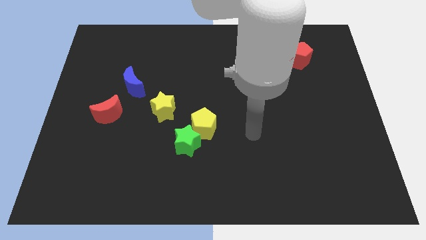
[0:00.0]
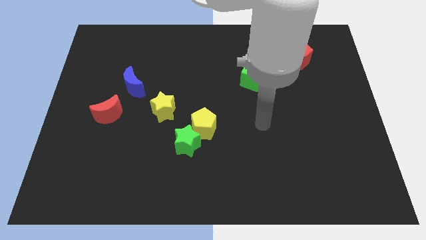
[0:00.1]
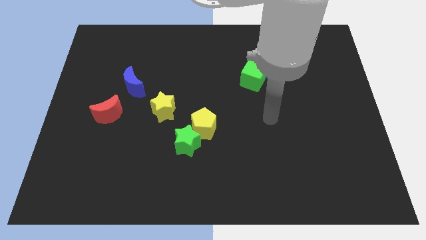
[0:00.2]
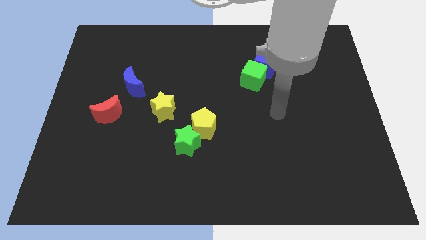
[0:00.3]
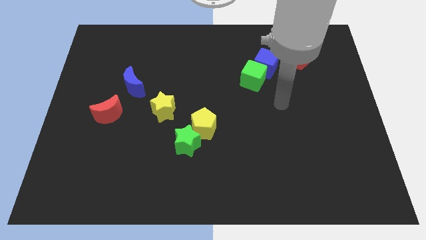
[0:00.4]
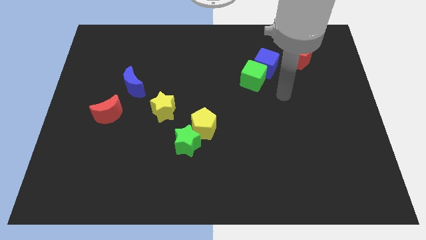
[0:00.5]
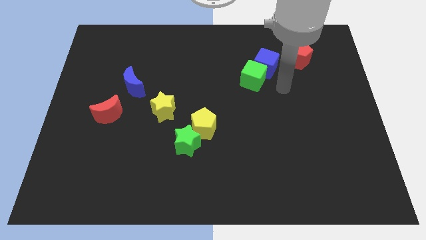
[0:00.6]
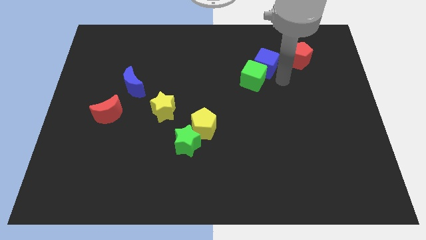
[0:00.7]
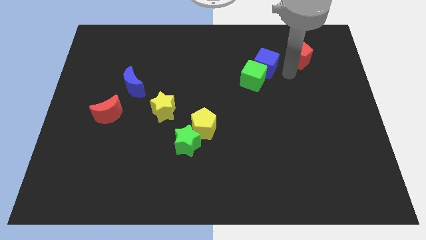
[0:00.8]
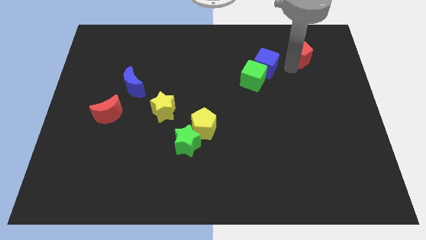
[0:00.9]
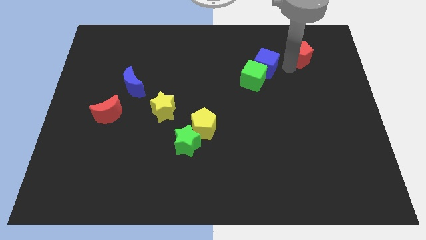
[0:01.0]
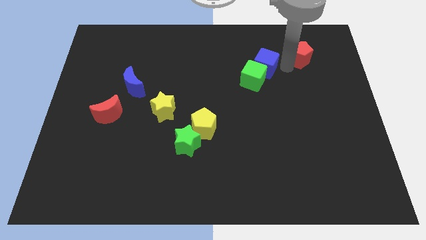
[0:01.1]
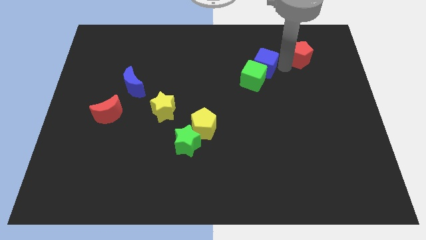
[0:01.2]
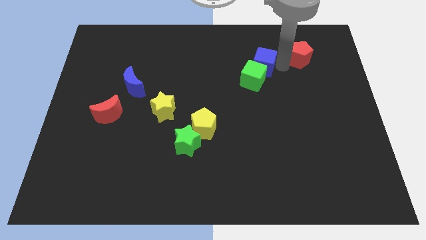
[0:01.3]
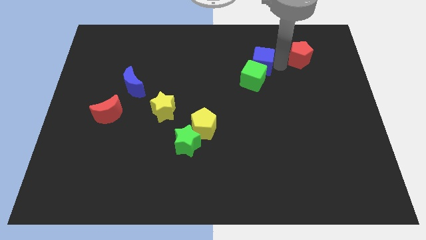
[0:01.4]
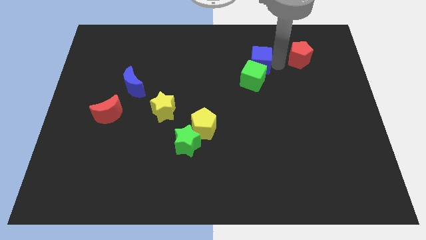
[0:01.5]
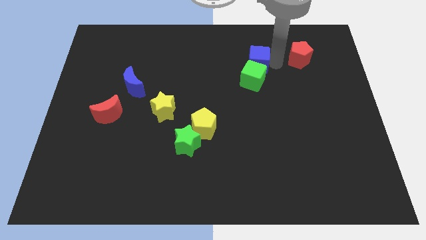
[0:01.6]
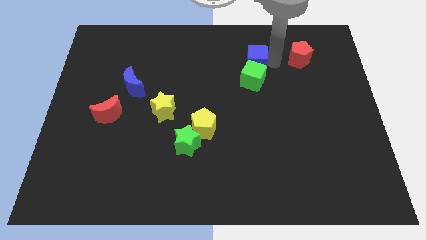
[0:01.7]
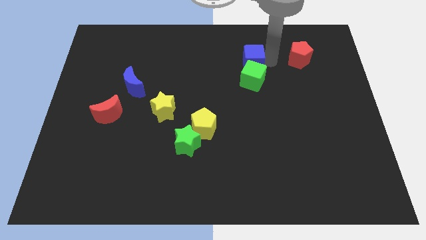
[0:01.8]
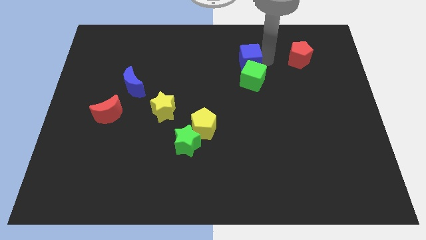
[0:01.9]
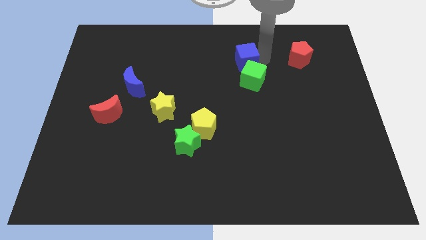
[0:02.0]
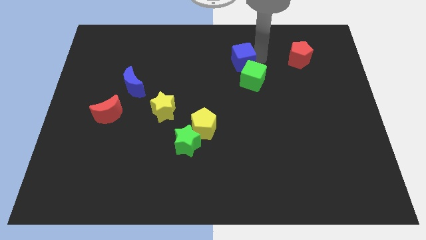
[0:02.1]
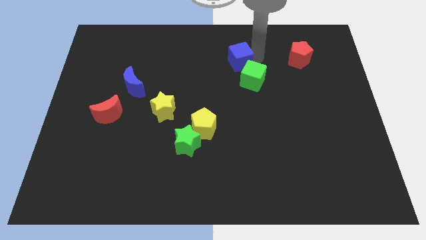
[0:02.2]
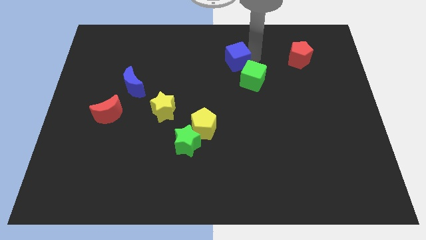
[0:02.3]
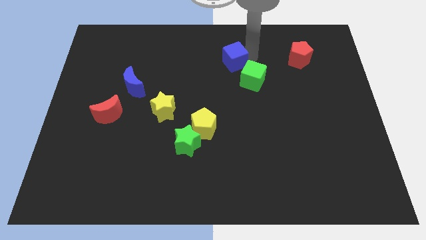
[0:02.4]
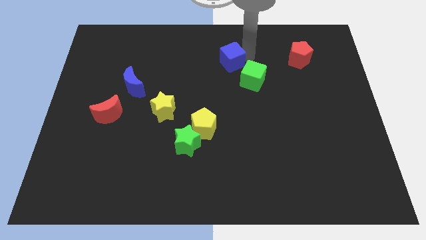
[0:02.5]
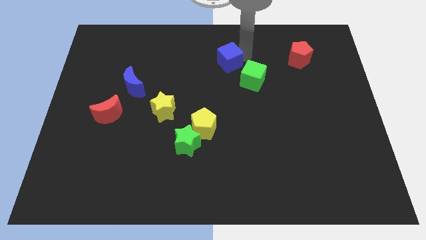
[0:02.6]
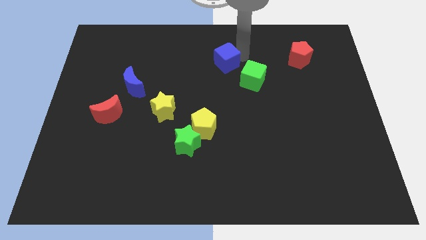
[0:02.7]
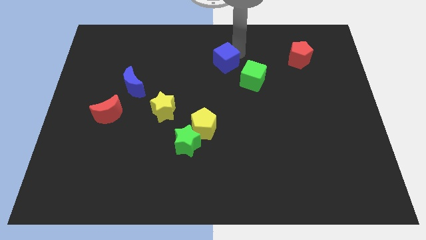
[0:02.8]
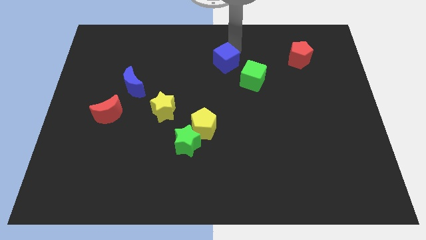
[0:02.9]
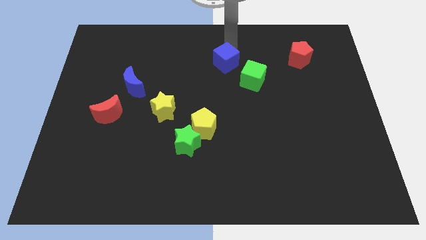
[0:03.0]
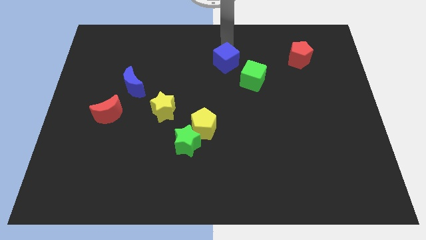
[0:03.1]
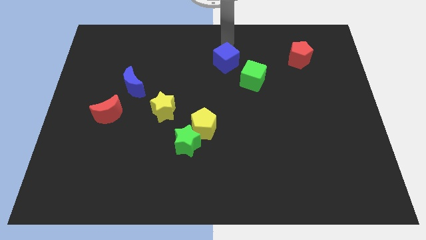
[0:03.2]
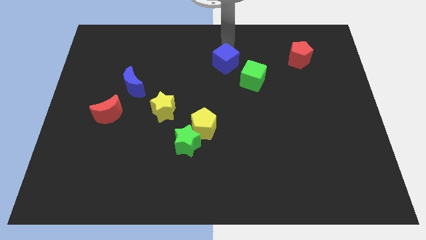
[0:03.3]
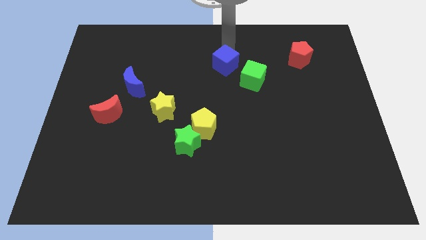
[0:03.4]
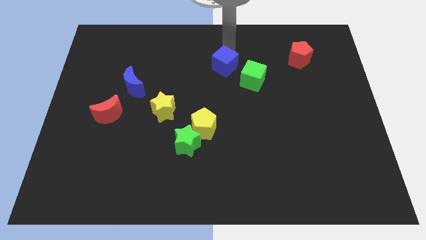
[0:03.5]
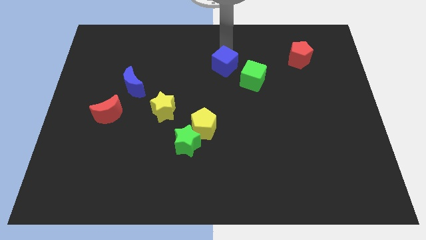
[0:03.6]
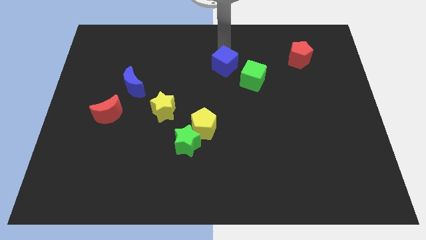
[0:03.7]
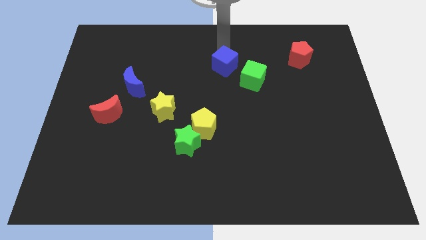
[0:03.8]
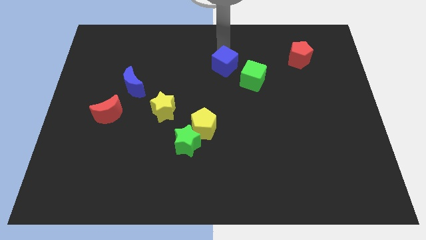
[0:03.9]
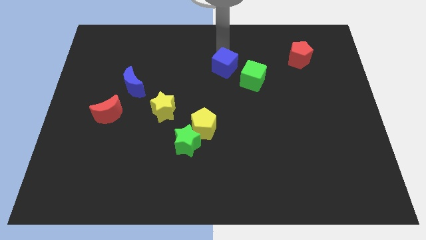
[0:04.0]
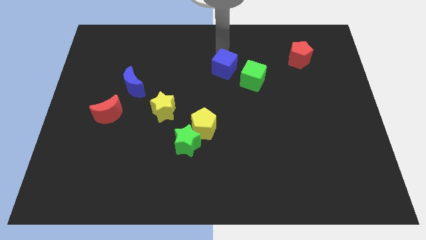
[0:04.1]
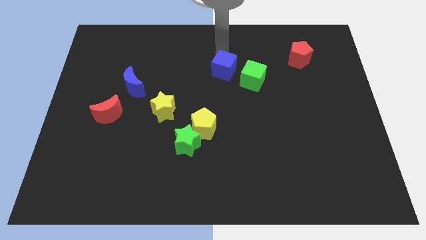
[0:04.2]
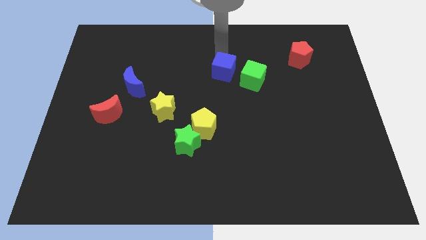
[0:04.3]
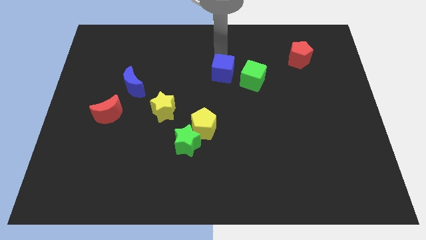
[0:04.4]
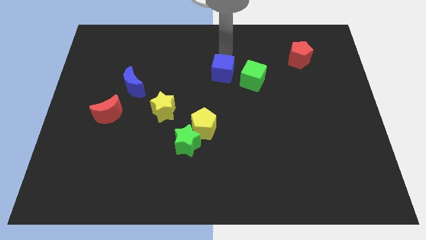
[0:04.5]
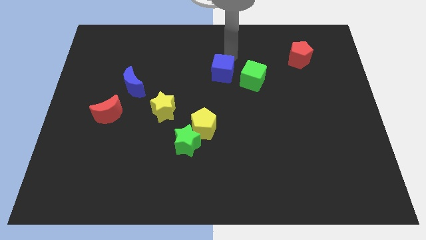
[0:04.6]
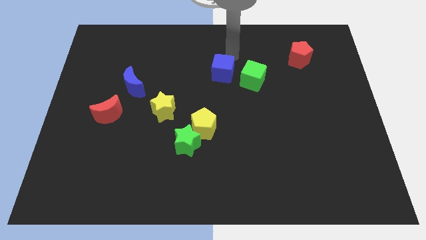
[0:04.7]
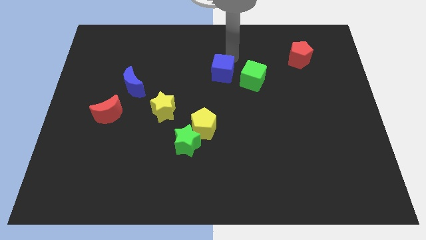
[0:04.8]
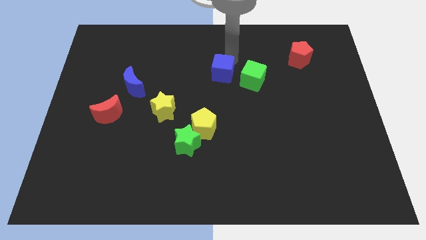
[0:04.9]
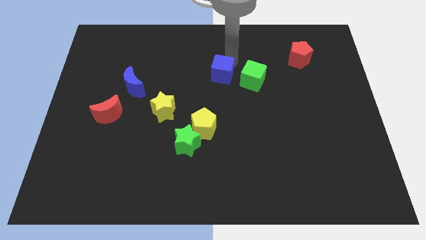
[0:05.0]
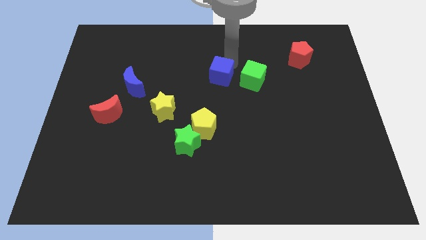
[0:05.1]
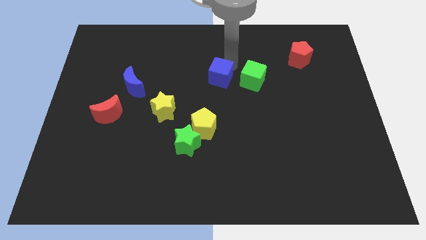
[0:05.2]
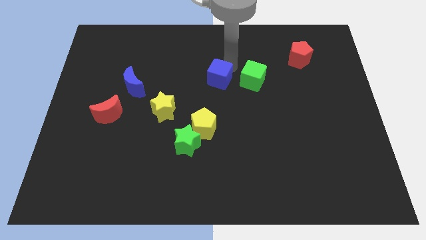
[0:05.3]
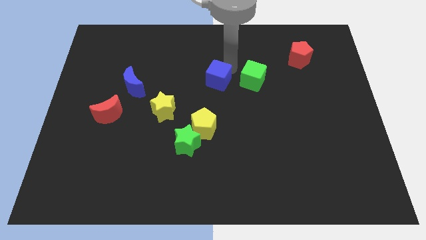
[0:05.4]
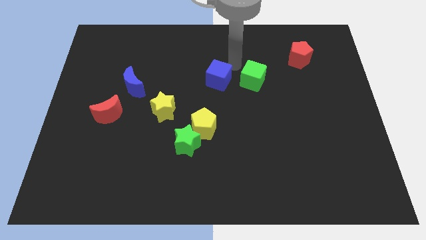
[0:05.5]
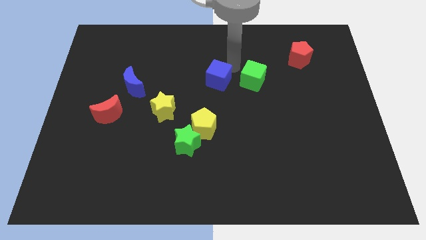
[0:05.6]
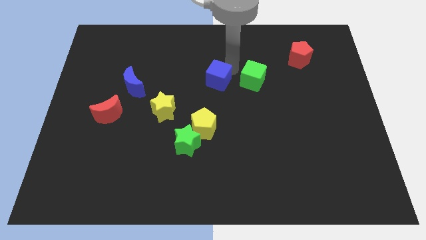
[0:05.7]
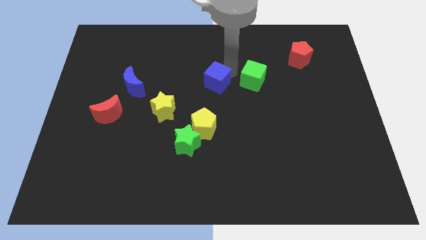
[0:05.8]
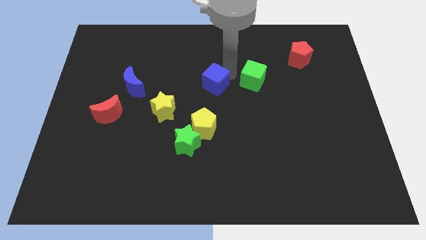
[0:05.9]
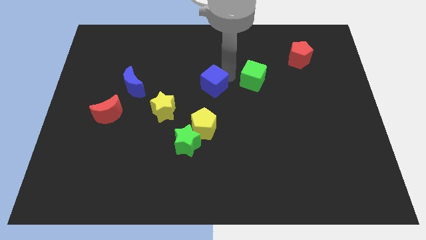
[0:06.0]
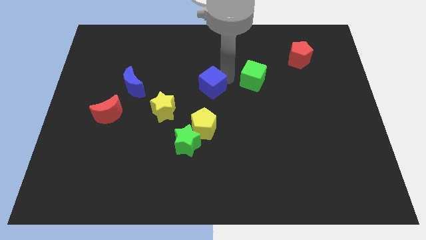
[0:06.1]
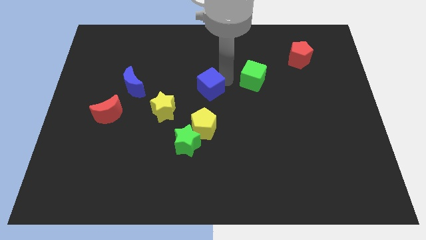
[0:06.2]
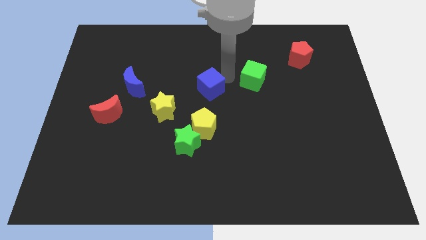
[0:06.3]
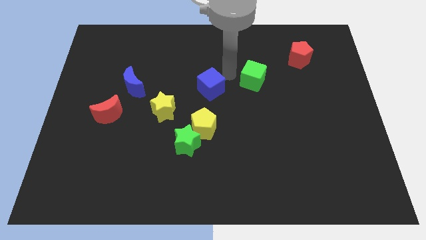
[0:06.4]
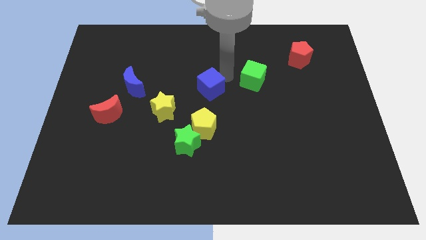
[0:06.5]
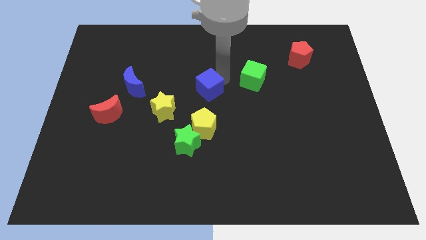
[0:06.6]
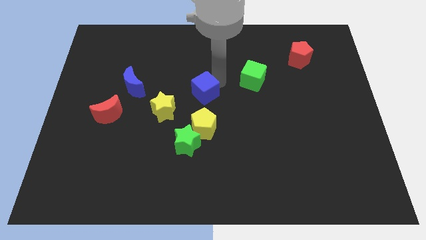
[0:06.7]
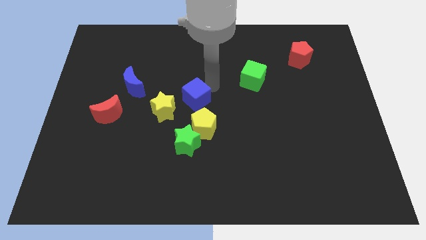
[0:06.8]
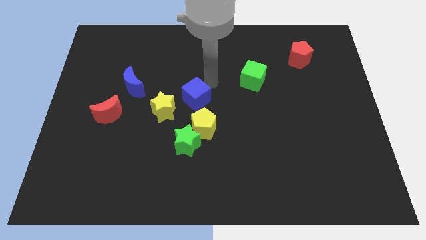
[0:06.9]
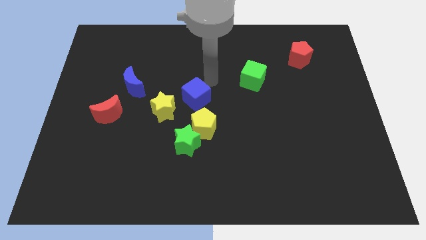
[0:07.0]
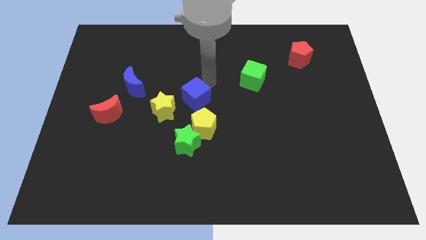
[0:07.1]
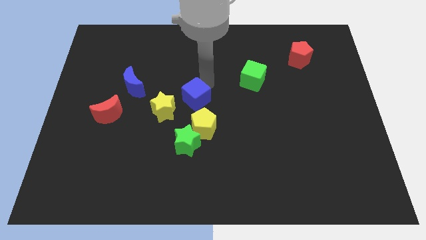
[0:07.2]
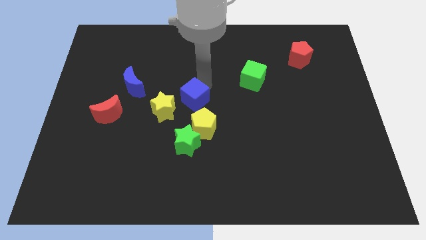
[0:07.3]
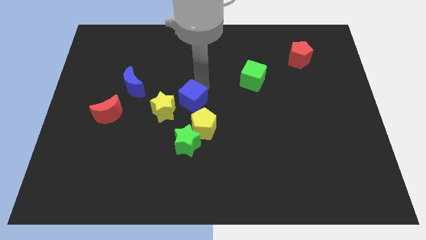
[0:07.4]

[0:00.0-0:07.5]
push the blue cube down and left diagonally

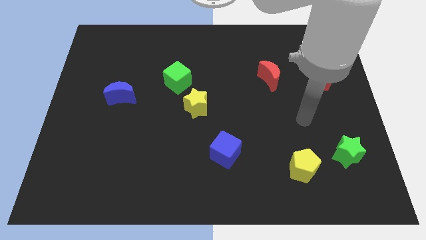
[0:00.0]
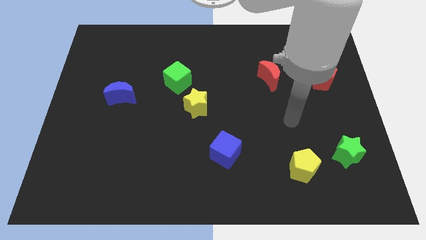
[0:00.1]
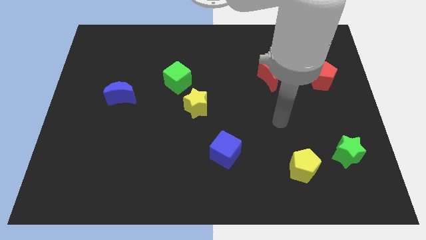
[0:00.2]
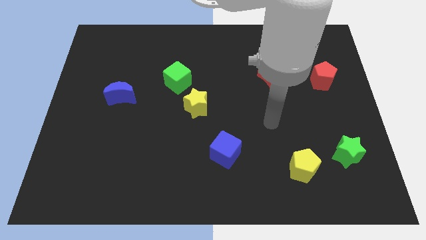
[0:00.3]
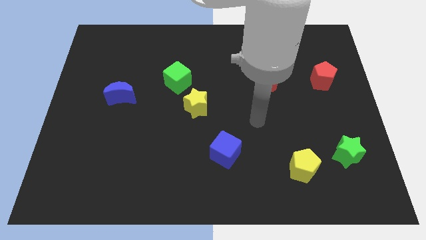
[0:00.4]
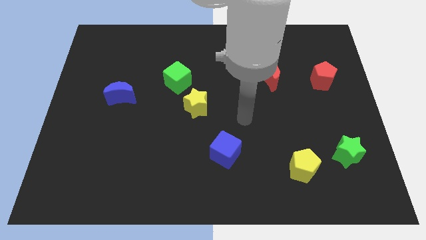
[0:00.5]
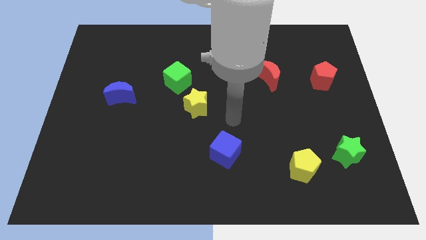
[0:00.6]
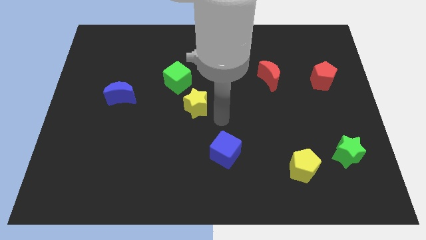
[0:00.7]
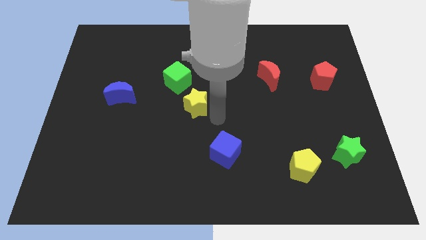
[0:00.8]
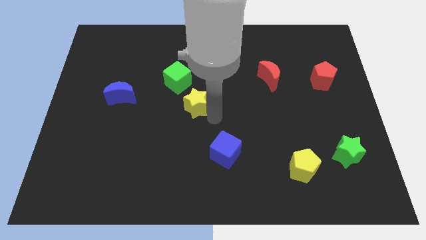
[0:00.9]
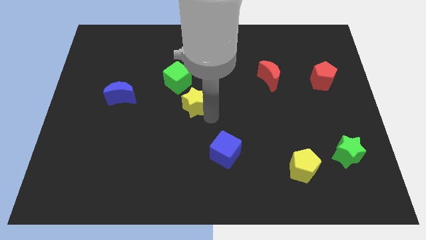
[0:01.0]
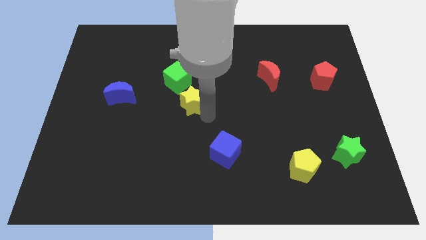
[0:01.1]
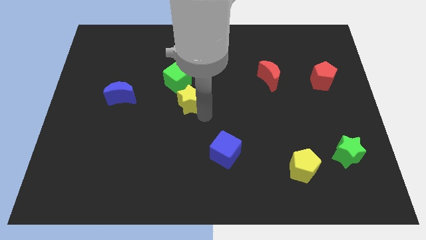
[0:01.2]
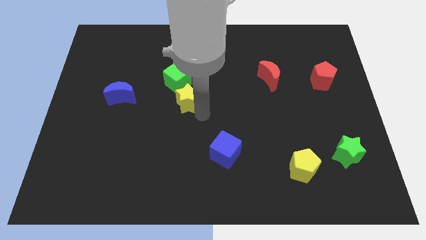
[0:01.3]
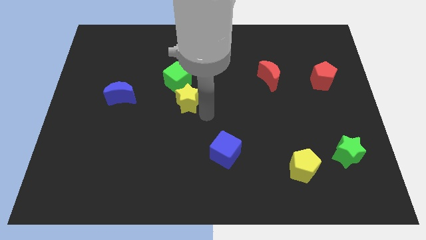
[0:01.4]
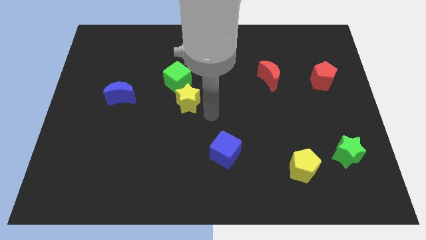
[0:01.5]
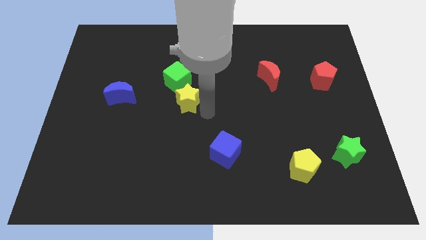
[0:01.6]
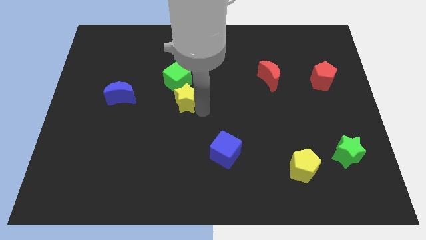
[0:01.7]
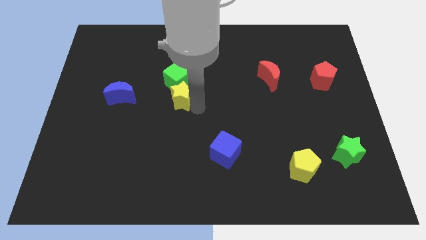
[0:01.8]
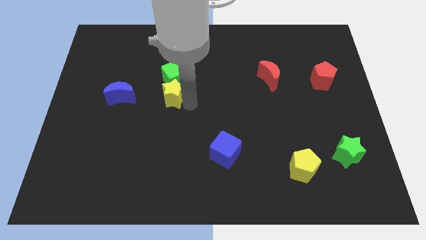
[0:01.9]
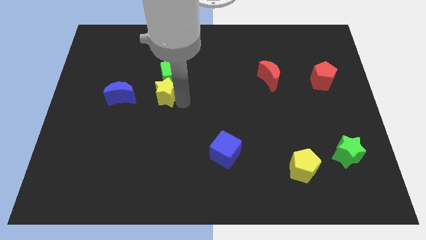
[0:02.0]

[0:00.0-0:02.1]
move the yellow star upwards and to the left diagonally somewhat
